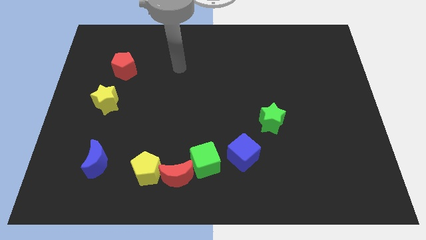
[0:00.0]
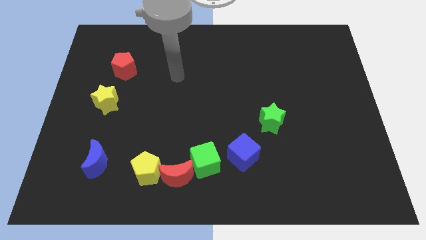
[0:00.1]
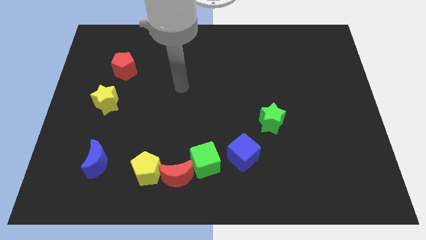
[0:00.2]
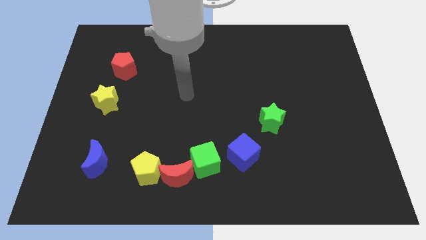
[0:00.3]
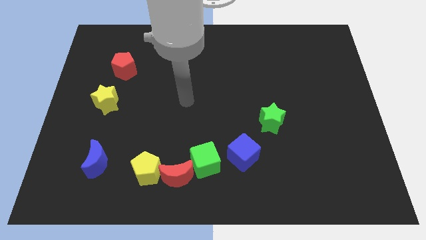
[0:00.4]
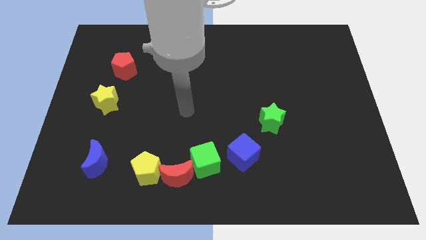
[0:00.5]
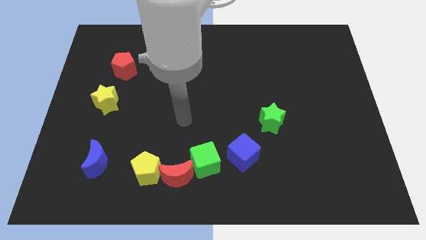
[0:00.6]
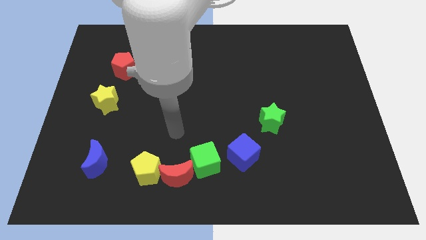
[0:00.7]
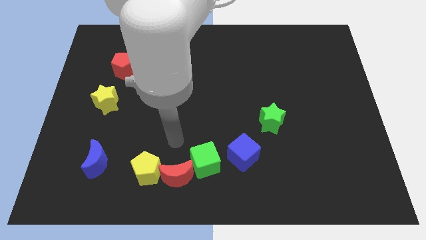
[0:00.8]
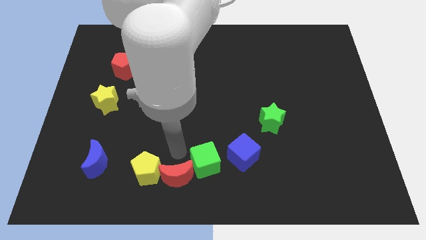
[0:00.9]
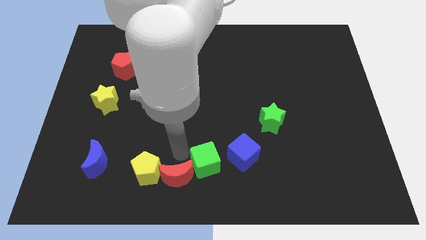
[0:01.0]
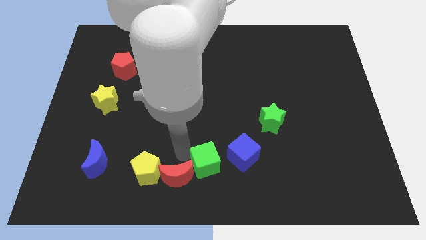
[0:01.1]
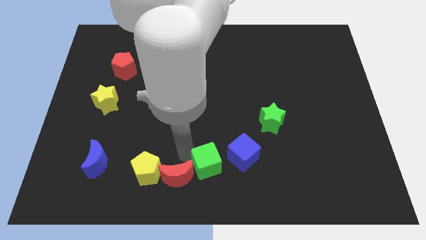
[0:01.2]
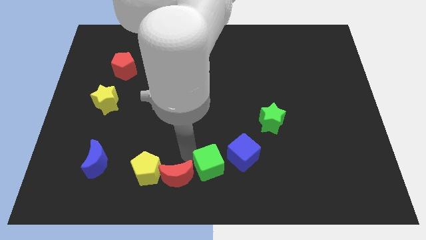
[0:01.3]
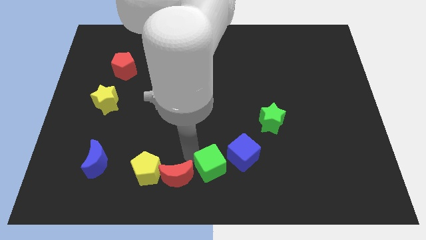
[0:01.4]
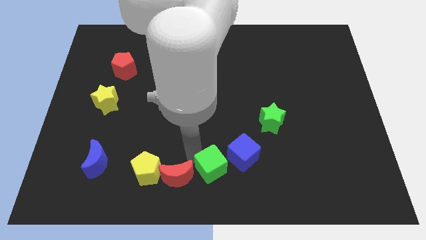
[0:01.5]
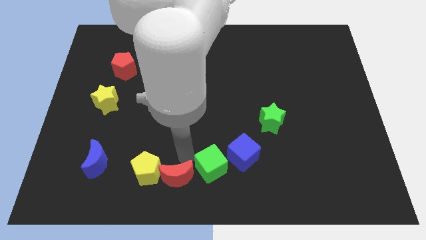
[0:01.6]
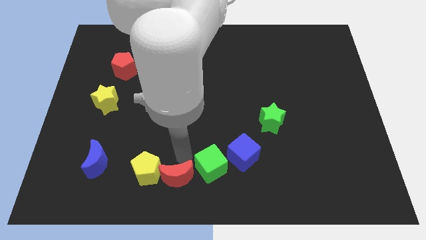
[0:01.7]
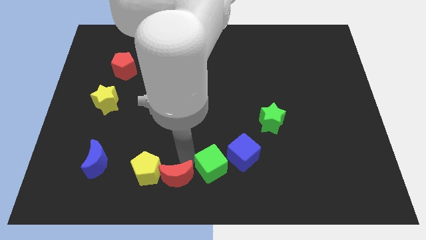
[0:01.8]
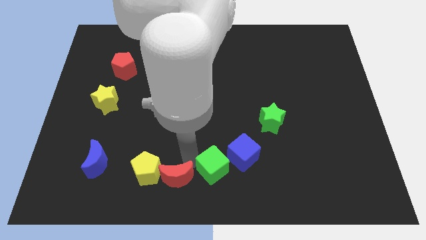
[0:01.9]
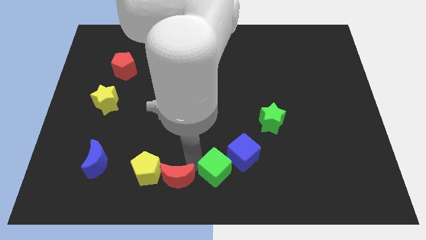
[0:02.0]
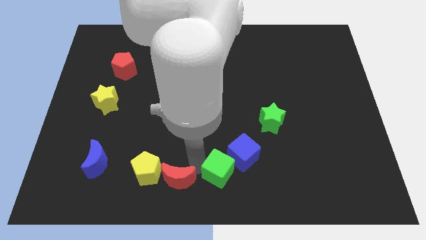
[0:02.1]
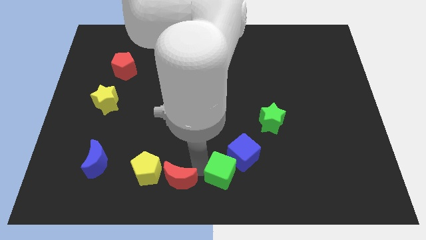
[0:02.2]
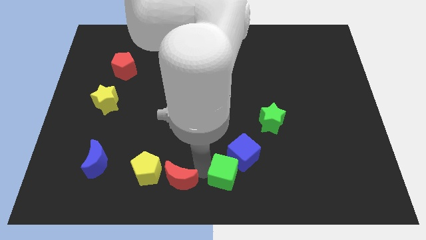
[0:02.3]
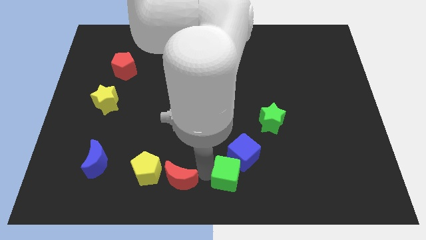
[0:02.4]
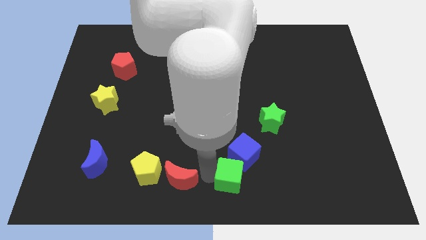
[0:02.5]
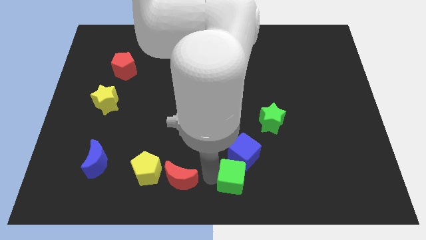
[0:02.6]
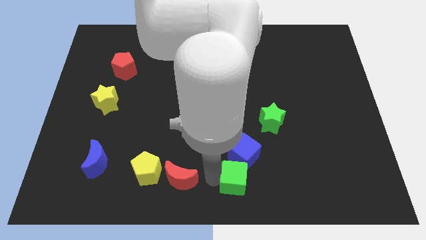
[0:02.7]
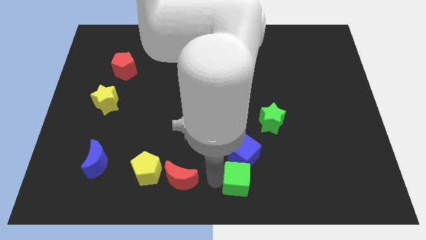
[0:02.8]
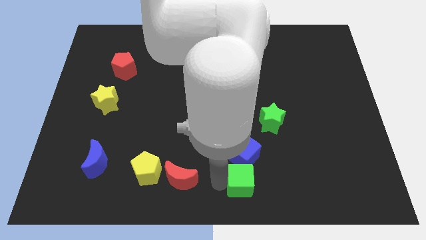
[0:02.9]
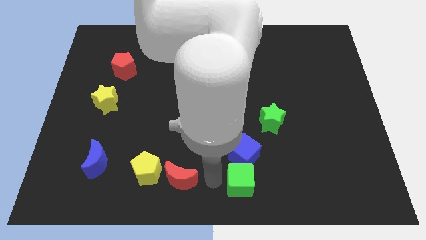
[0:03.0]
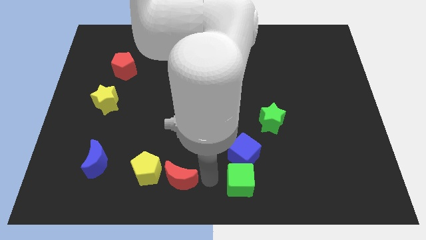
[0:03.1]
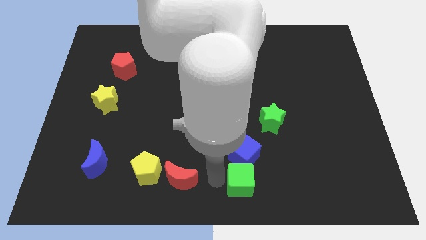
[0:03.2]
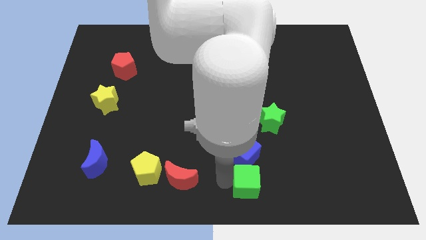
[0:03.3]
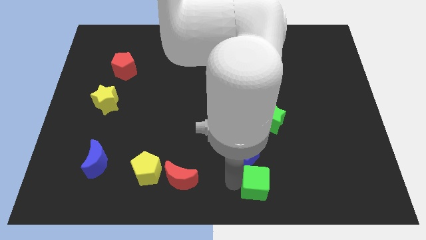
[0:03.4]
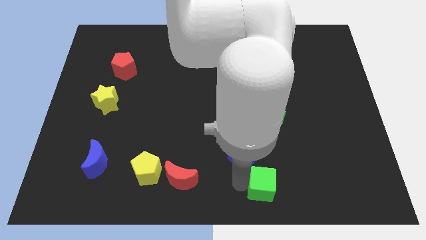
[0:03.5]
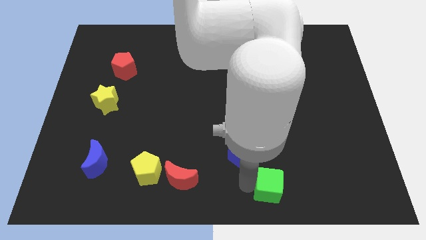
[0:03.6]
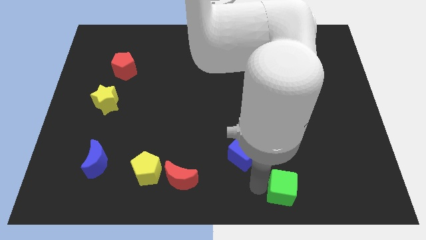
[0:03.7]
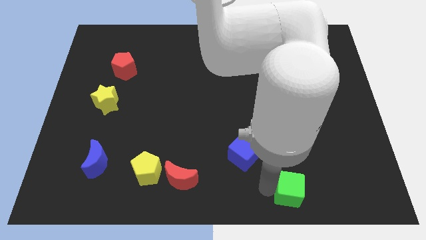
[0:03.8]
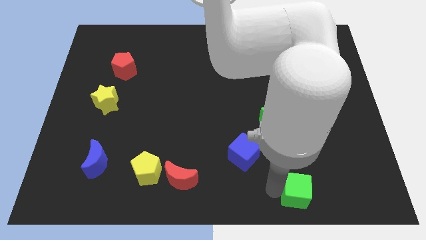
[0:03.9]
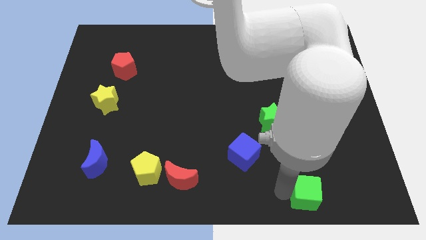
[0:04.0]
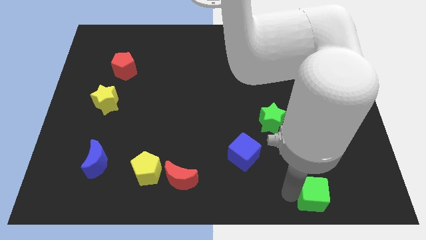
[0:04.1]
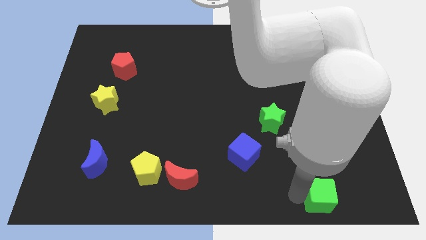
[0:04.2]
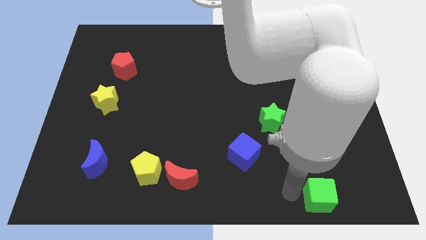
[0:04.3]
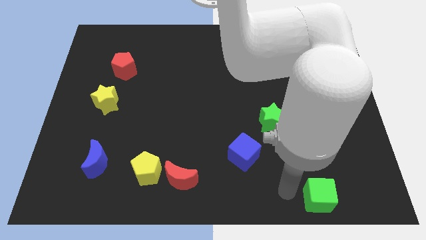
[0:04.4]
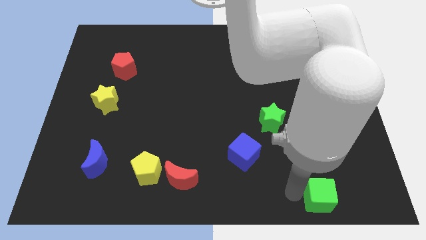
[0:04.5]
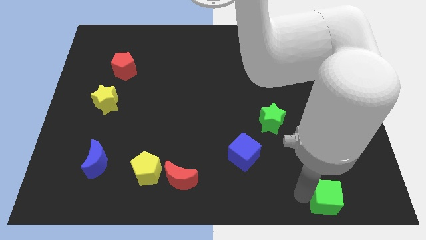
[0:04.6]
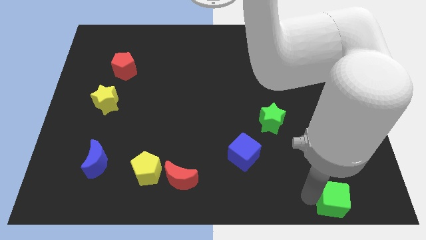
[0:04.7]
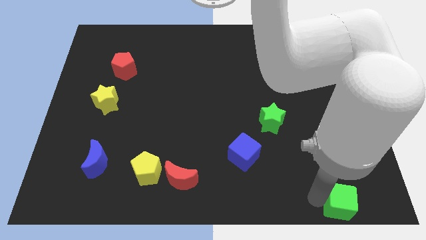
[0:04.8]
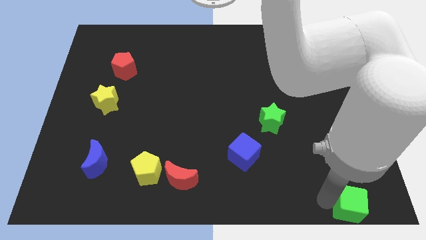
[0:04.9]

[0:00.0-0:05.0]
move the green cube to the bottom right

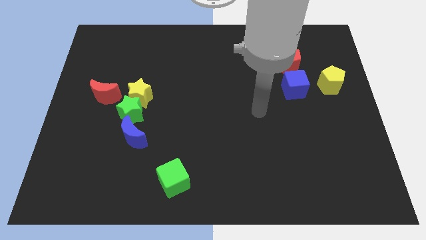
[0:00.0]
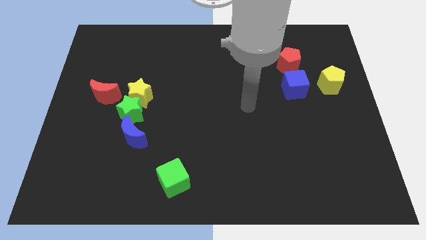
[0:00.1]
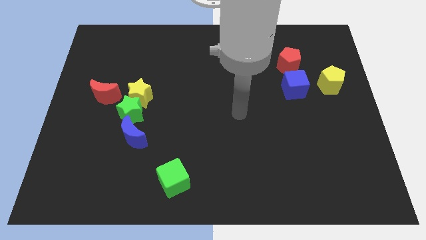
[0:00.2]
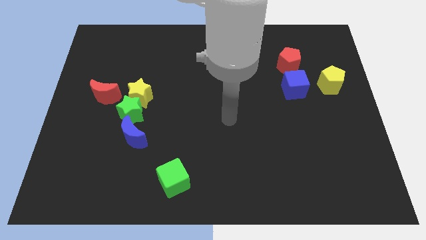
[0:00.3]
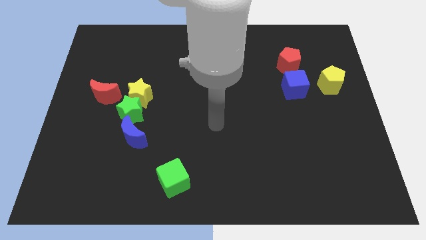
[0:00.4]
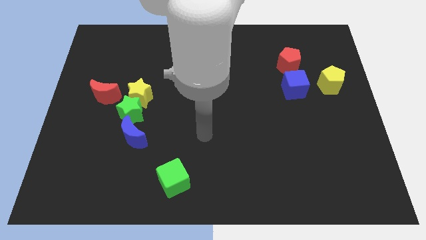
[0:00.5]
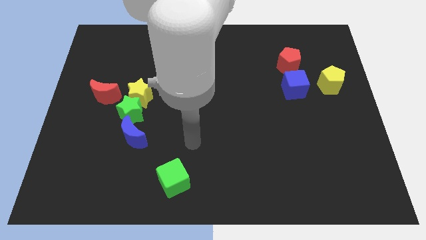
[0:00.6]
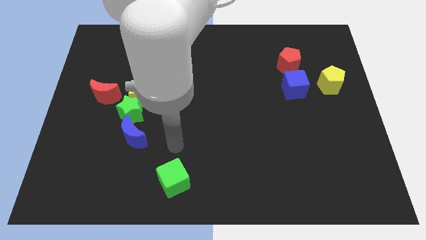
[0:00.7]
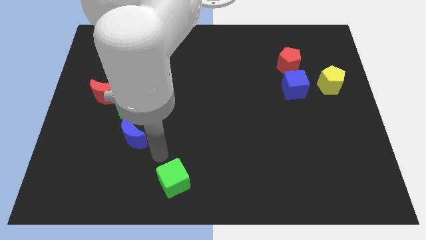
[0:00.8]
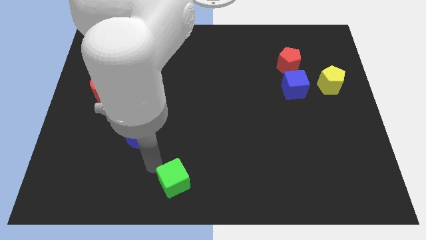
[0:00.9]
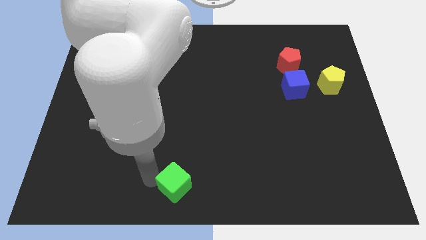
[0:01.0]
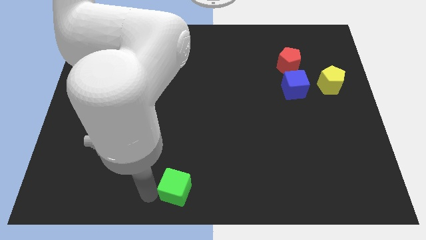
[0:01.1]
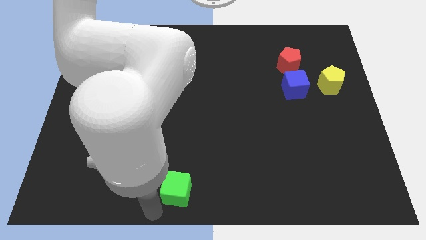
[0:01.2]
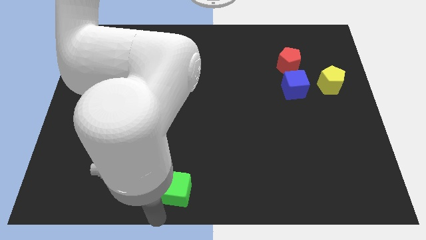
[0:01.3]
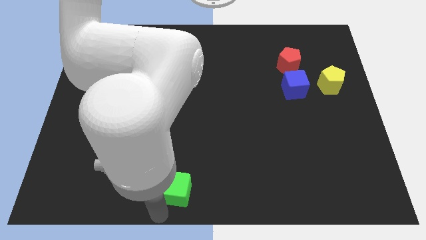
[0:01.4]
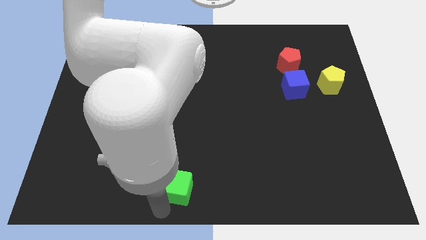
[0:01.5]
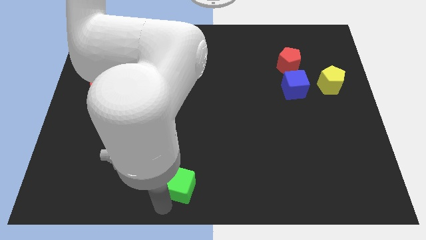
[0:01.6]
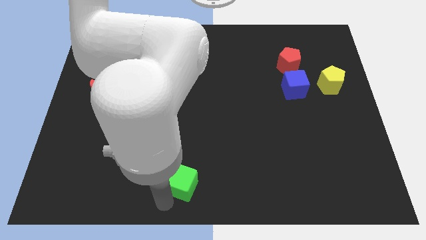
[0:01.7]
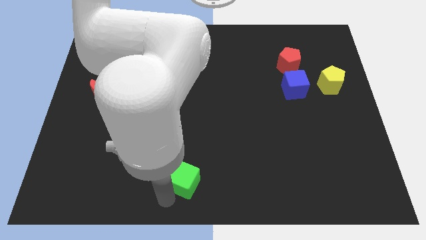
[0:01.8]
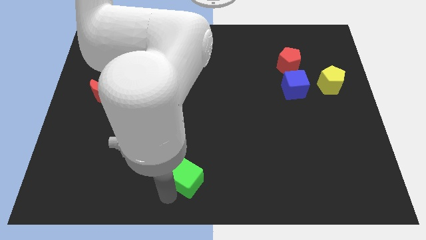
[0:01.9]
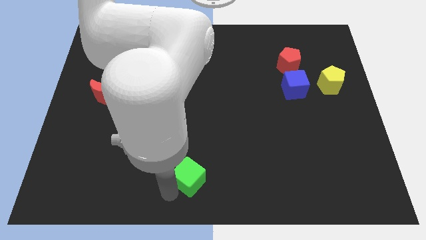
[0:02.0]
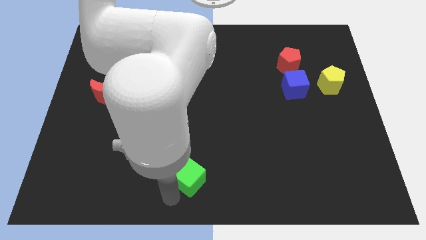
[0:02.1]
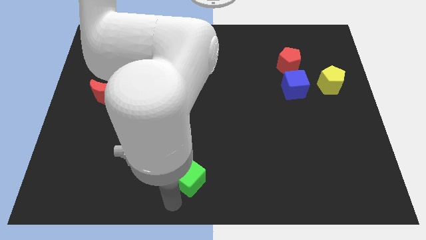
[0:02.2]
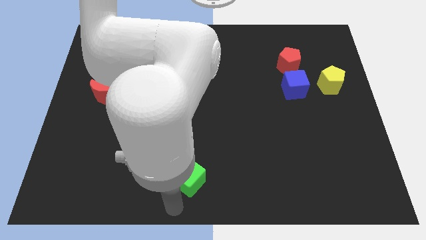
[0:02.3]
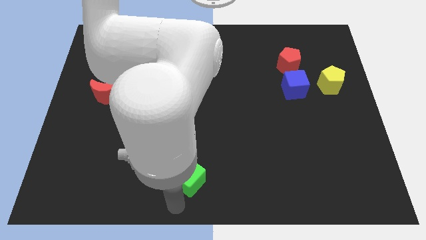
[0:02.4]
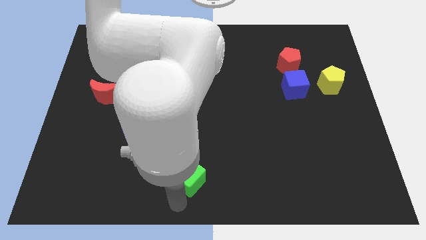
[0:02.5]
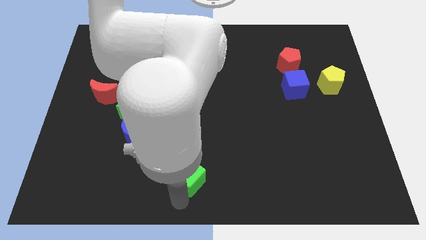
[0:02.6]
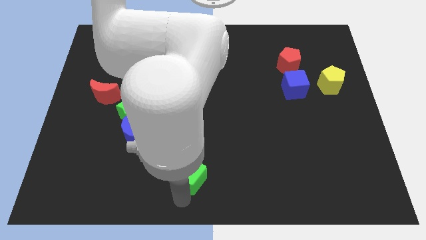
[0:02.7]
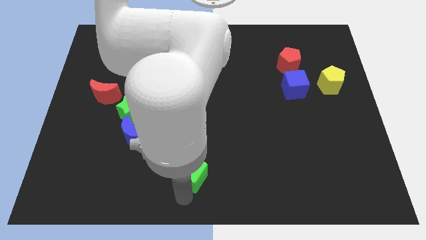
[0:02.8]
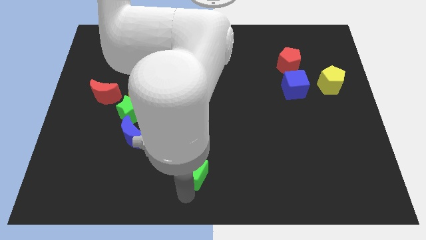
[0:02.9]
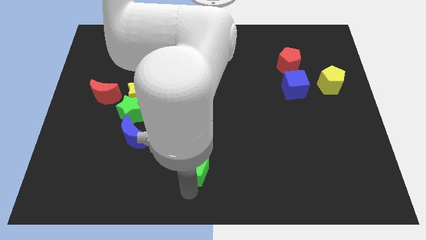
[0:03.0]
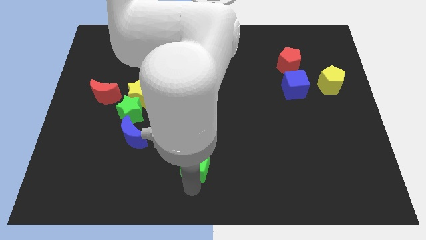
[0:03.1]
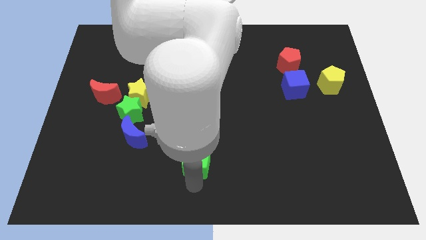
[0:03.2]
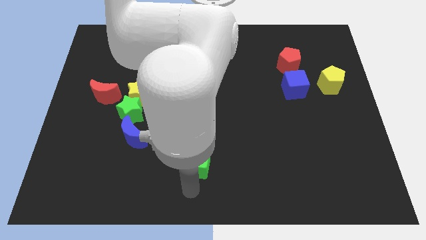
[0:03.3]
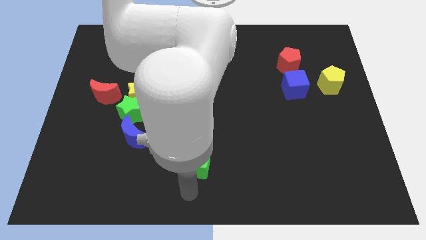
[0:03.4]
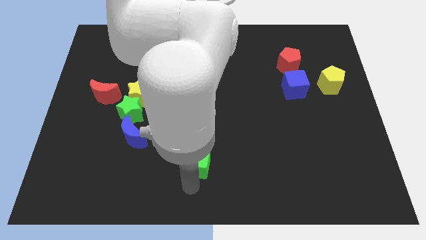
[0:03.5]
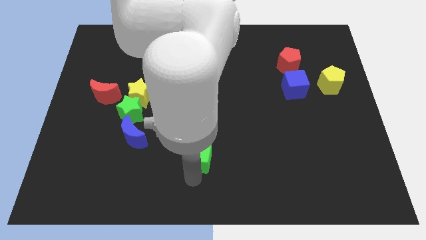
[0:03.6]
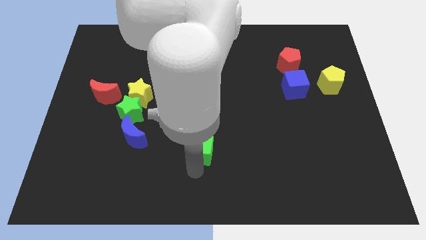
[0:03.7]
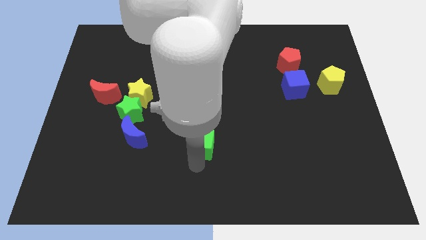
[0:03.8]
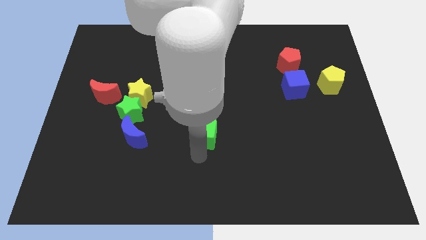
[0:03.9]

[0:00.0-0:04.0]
move the green cube to the middle of the board
